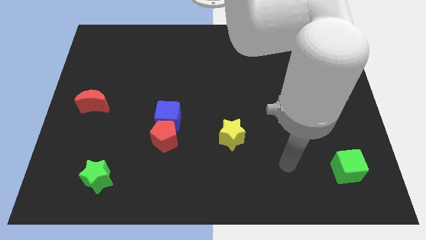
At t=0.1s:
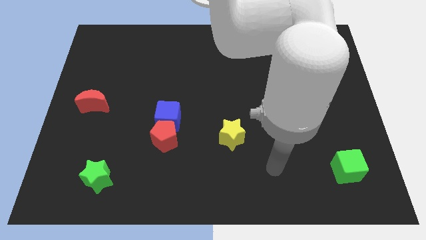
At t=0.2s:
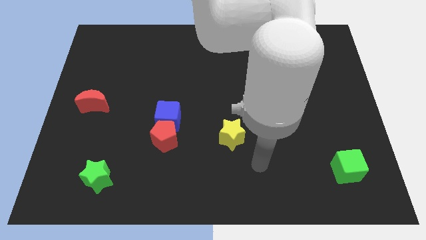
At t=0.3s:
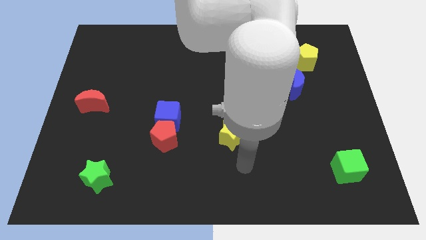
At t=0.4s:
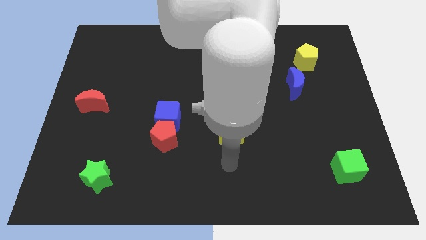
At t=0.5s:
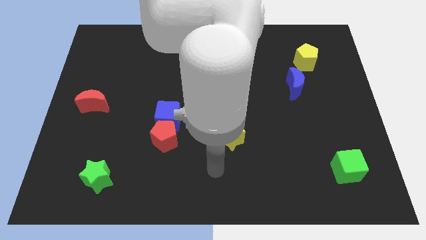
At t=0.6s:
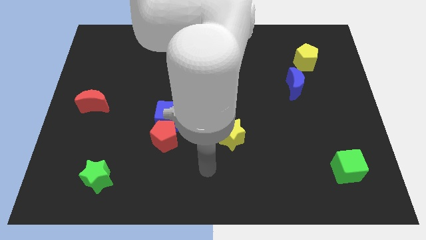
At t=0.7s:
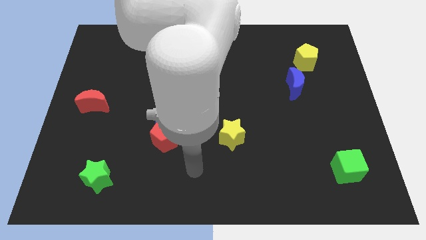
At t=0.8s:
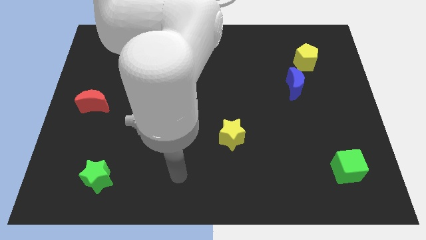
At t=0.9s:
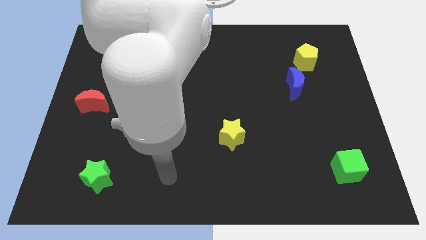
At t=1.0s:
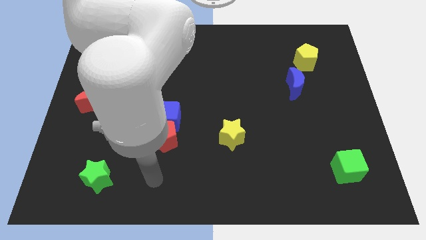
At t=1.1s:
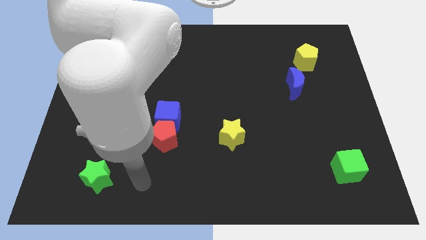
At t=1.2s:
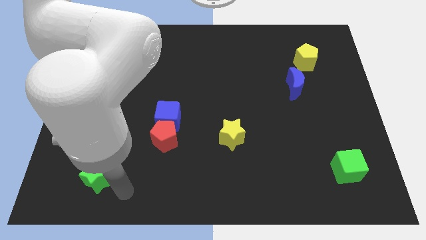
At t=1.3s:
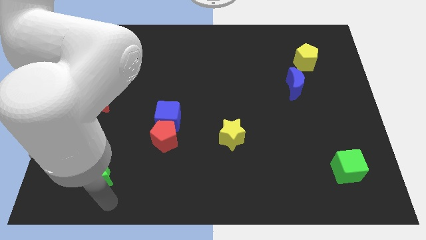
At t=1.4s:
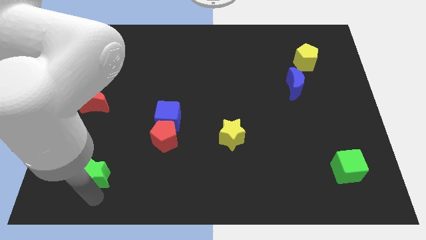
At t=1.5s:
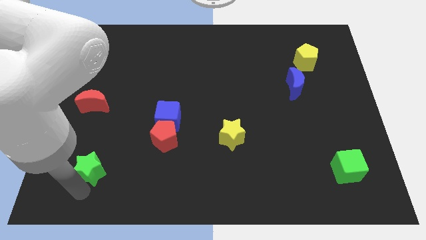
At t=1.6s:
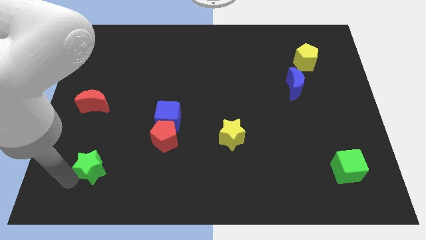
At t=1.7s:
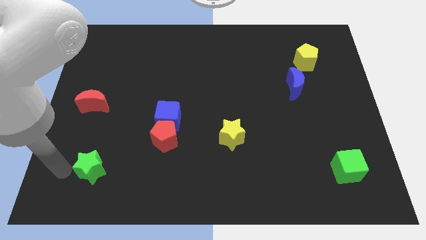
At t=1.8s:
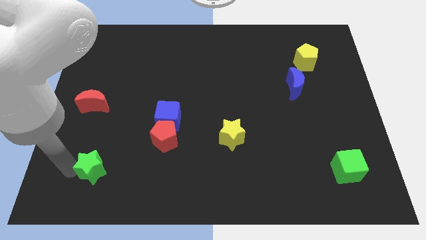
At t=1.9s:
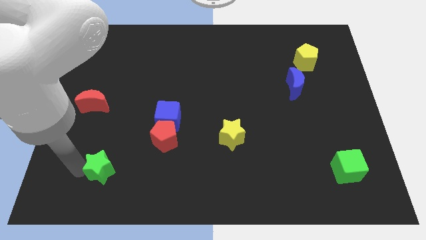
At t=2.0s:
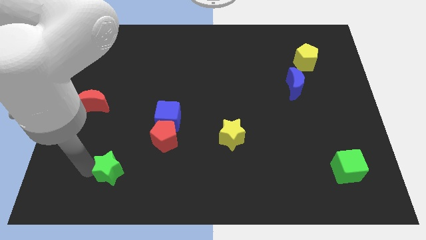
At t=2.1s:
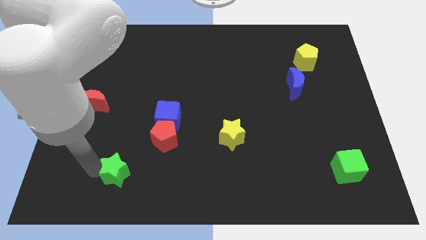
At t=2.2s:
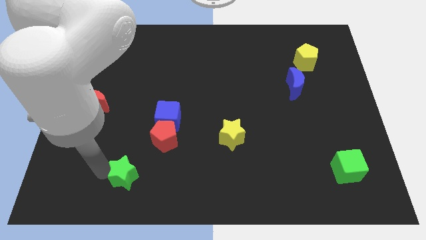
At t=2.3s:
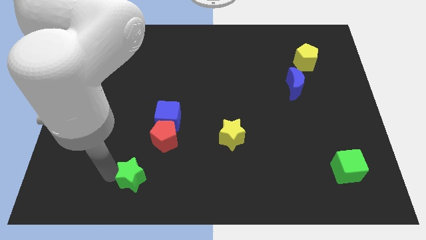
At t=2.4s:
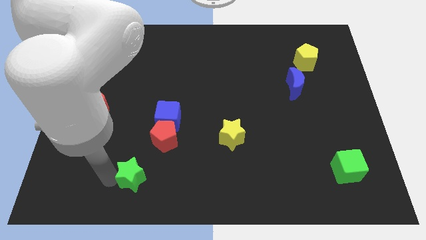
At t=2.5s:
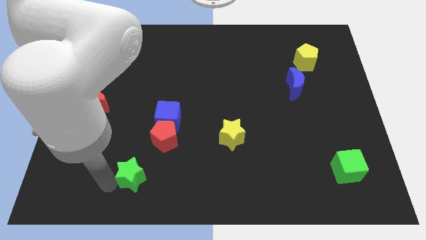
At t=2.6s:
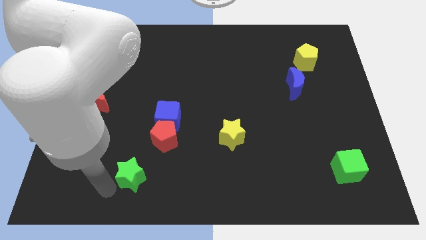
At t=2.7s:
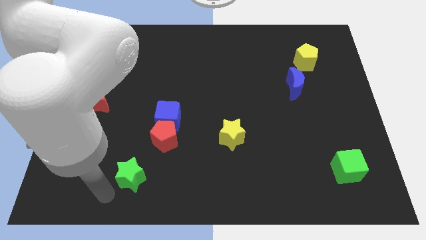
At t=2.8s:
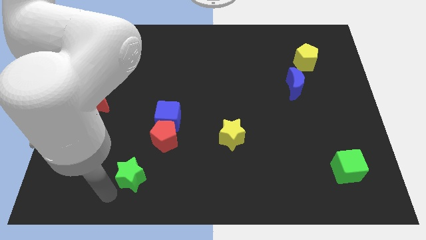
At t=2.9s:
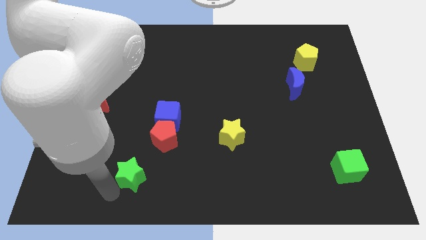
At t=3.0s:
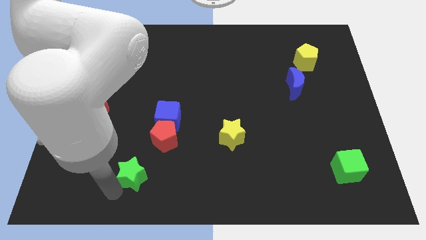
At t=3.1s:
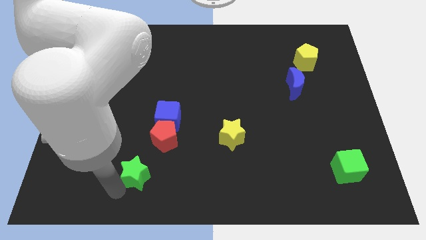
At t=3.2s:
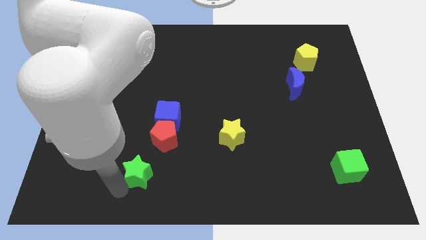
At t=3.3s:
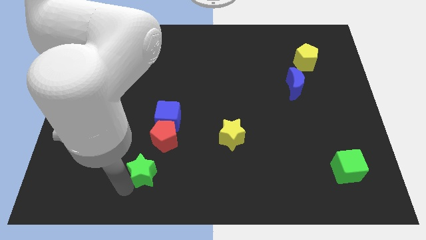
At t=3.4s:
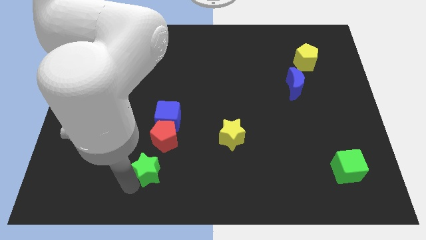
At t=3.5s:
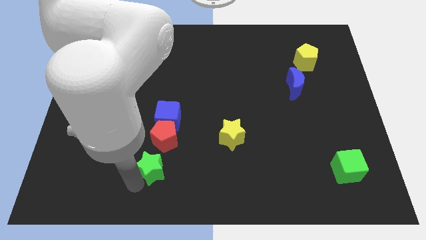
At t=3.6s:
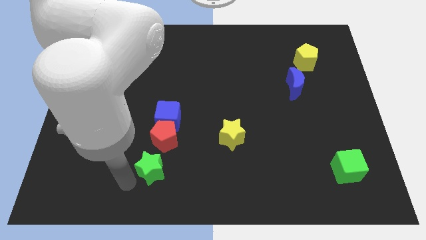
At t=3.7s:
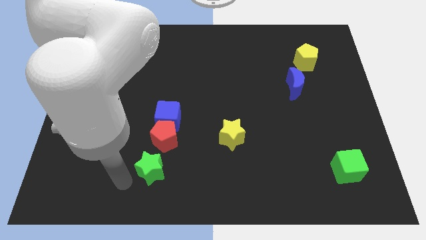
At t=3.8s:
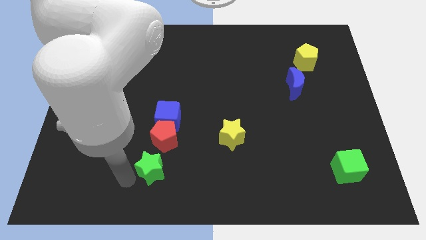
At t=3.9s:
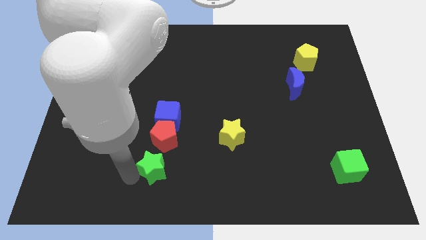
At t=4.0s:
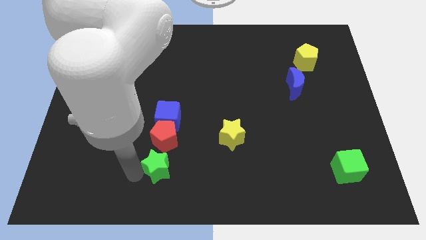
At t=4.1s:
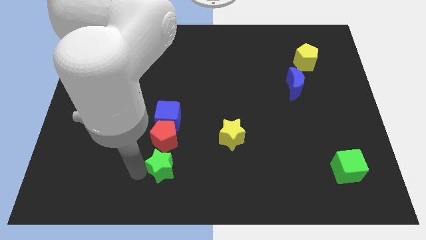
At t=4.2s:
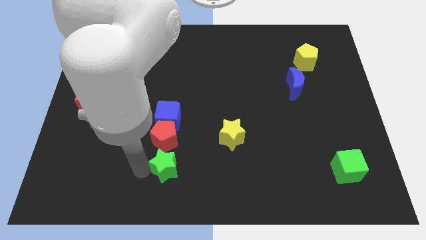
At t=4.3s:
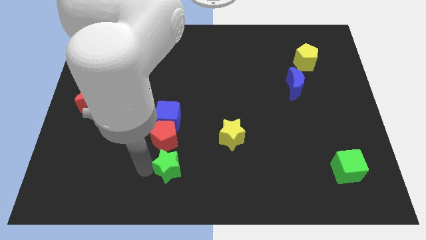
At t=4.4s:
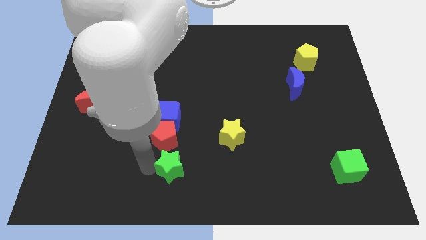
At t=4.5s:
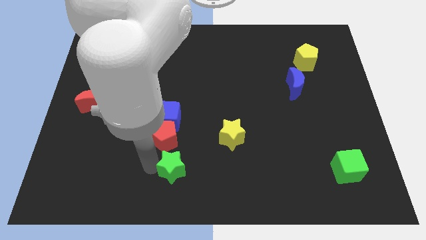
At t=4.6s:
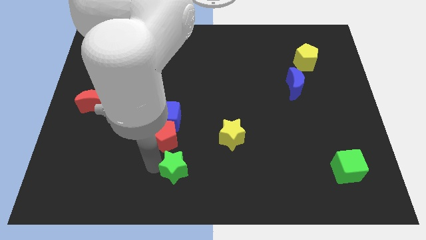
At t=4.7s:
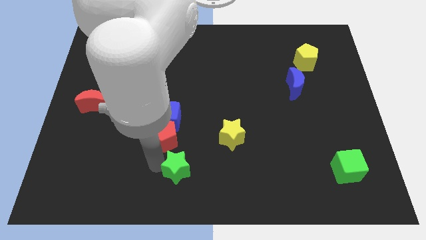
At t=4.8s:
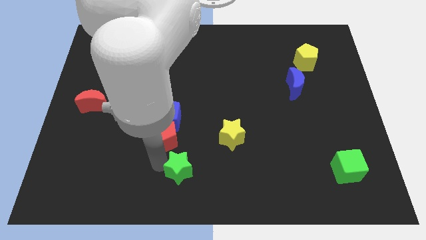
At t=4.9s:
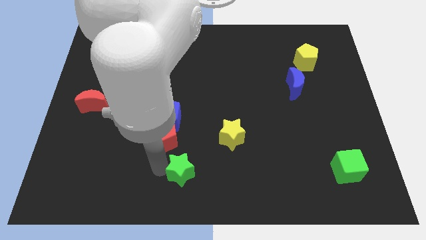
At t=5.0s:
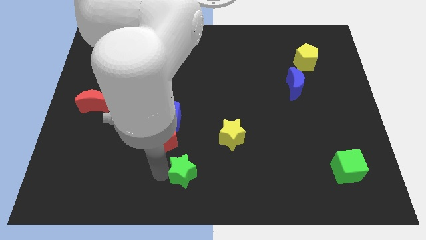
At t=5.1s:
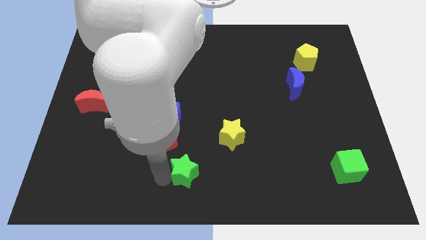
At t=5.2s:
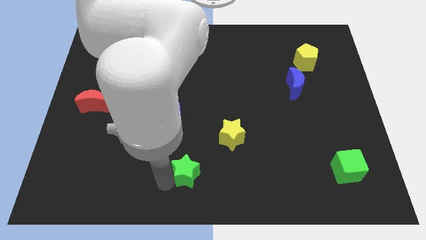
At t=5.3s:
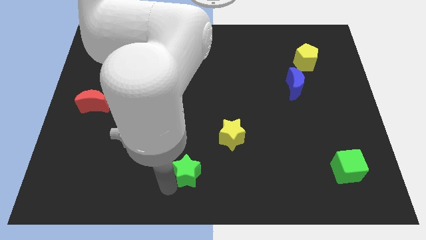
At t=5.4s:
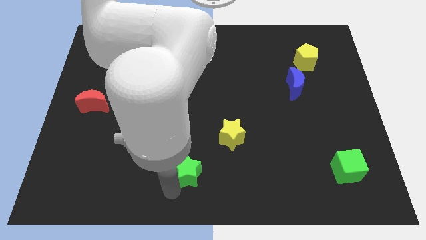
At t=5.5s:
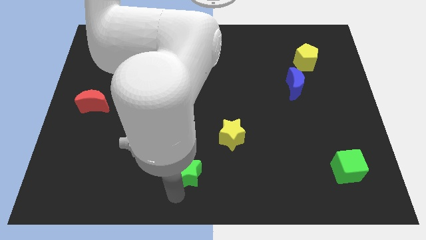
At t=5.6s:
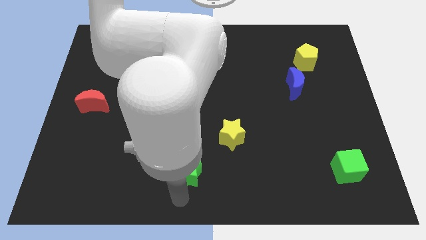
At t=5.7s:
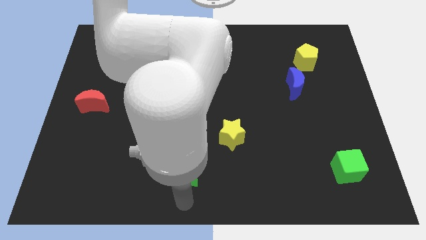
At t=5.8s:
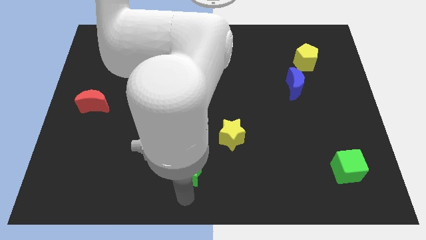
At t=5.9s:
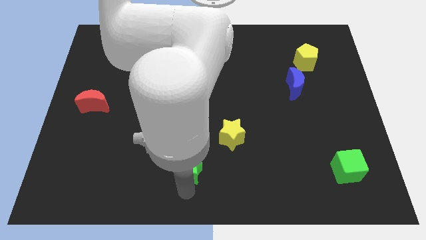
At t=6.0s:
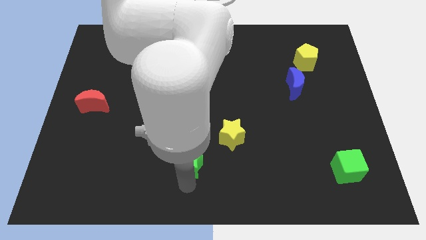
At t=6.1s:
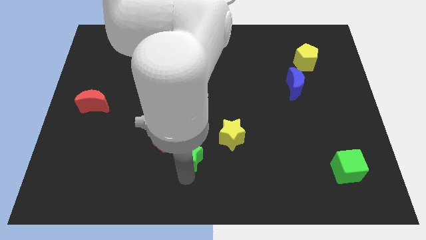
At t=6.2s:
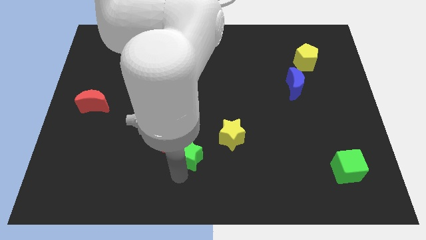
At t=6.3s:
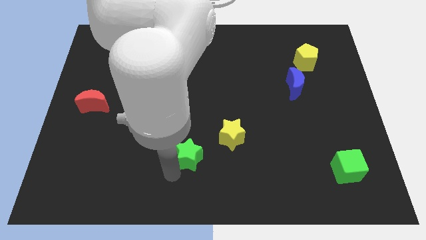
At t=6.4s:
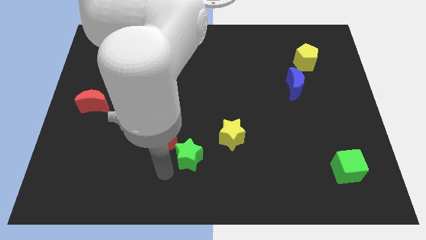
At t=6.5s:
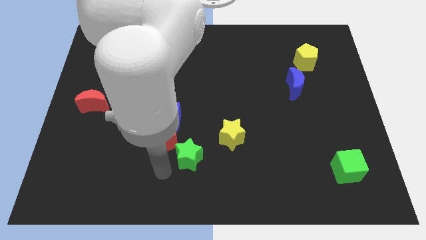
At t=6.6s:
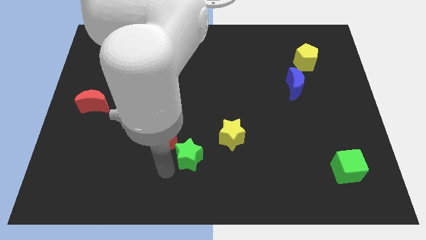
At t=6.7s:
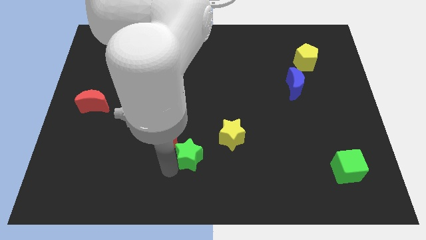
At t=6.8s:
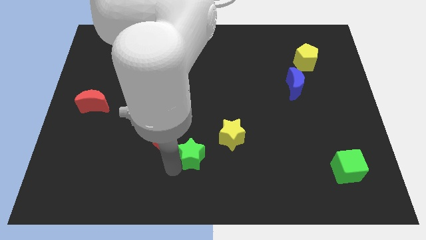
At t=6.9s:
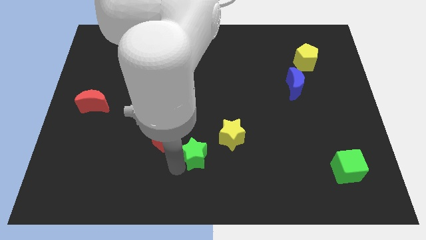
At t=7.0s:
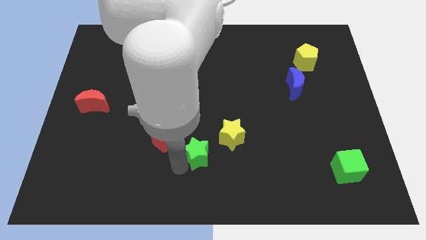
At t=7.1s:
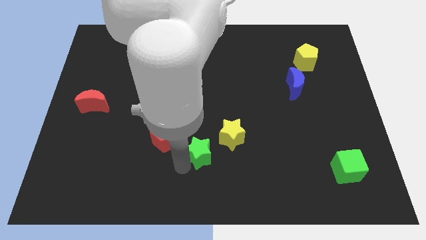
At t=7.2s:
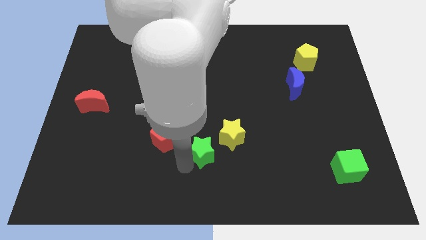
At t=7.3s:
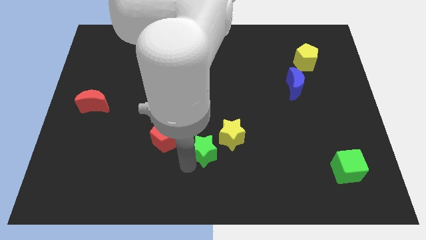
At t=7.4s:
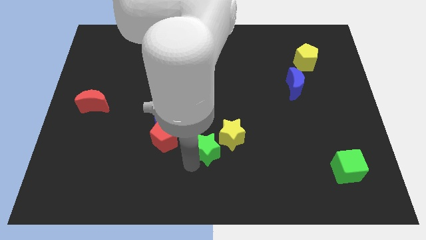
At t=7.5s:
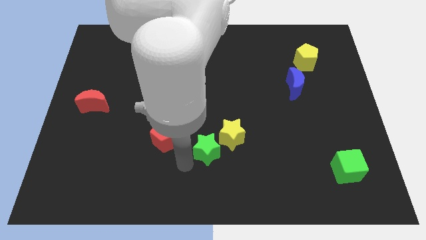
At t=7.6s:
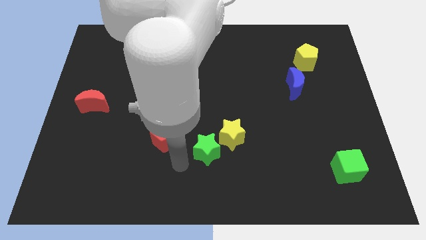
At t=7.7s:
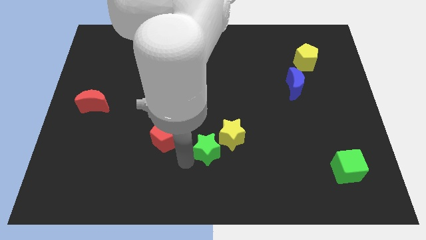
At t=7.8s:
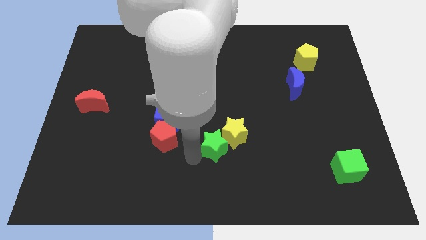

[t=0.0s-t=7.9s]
push the green star to the yellow star
